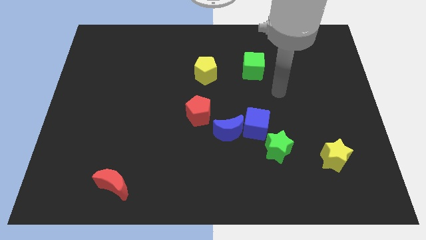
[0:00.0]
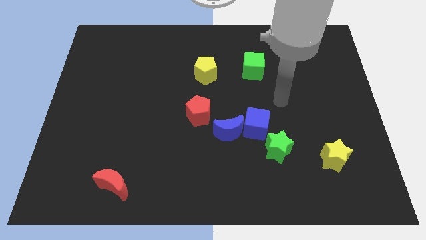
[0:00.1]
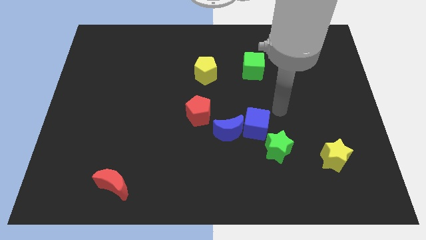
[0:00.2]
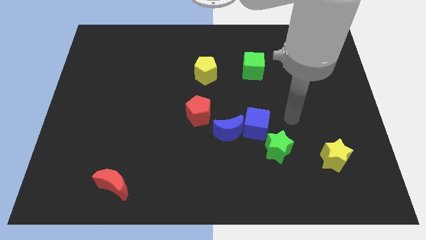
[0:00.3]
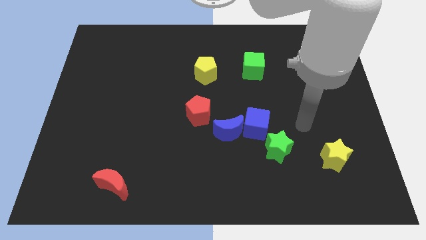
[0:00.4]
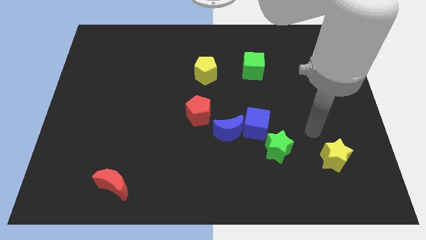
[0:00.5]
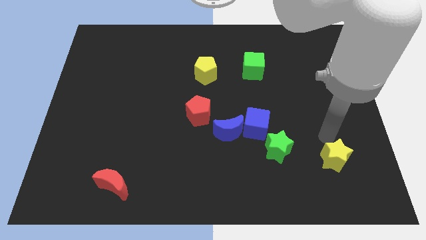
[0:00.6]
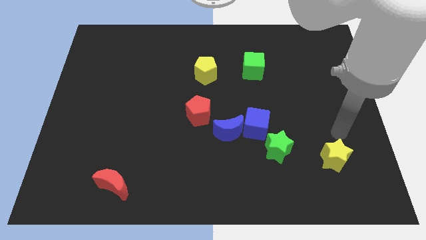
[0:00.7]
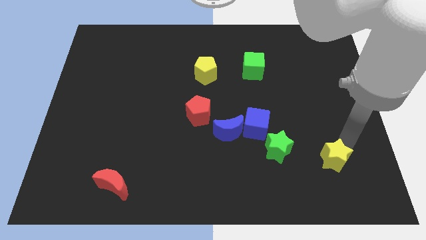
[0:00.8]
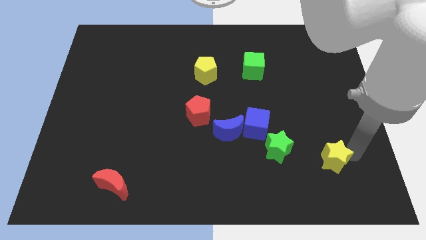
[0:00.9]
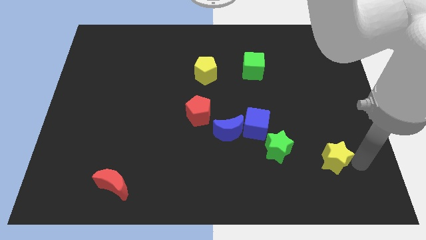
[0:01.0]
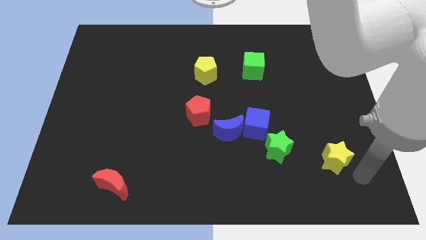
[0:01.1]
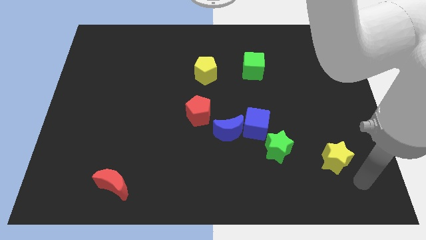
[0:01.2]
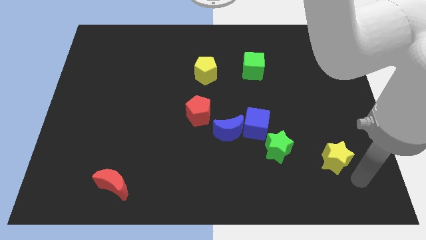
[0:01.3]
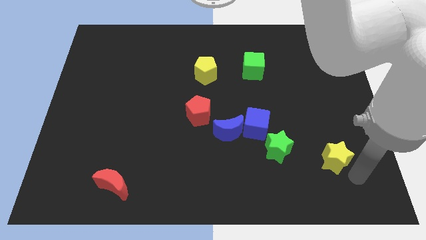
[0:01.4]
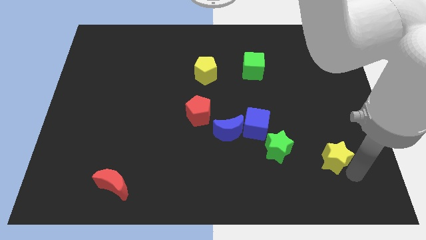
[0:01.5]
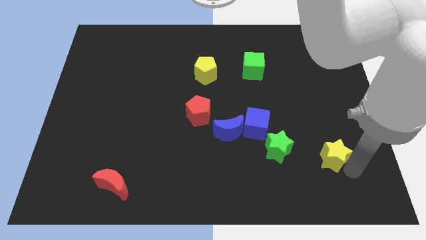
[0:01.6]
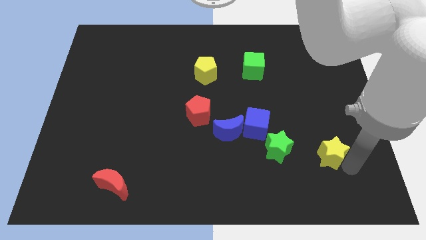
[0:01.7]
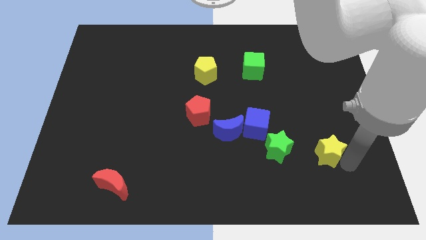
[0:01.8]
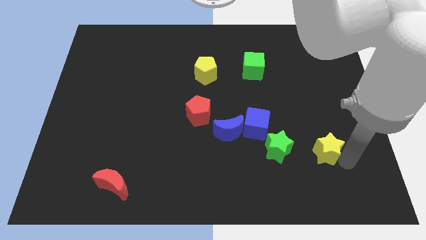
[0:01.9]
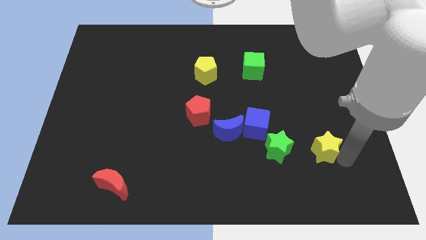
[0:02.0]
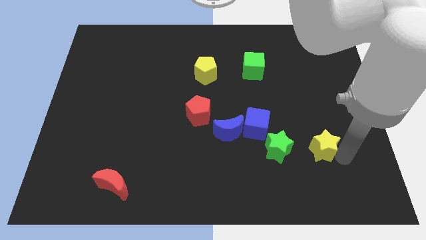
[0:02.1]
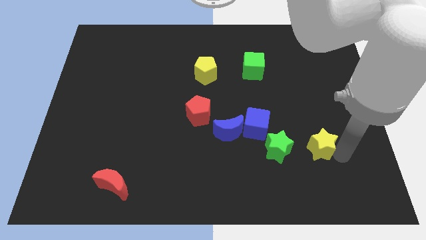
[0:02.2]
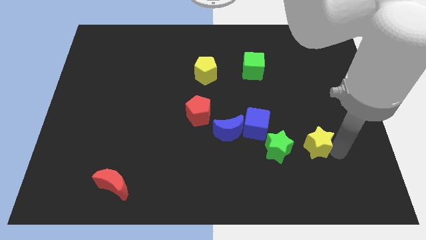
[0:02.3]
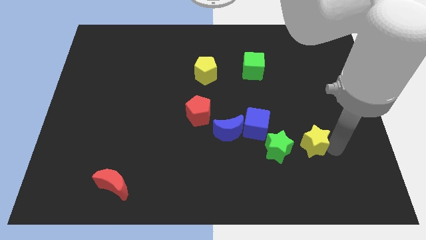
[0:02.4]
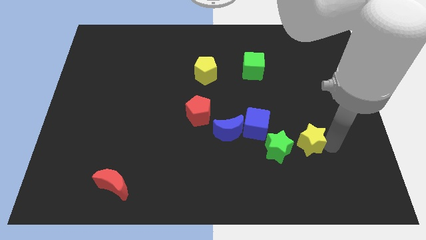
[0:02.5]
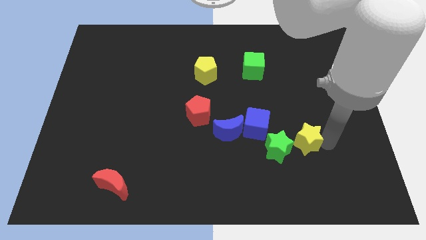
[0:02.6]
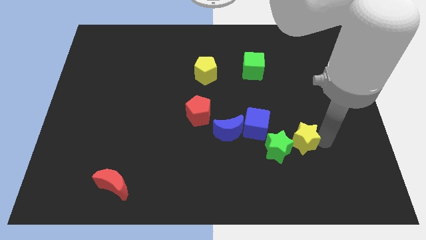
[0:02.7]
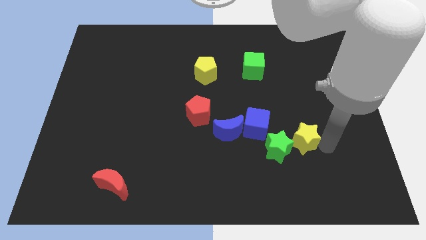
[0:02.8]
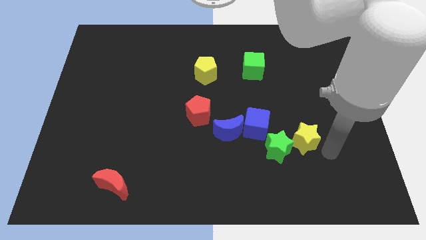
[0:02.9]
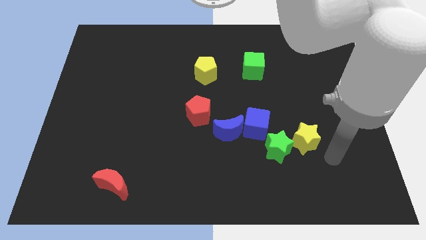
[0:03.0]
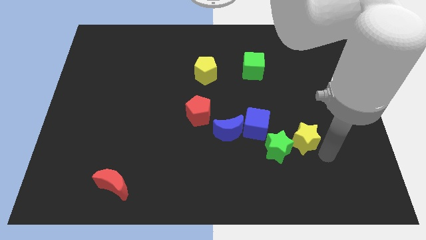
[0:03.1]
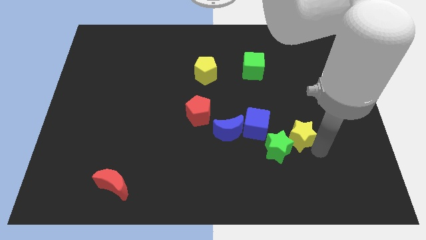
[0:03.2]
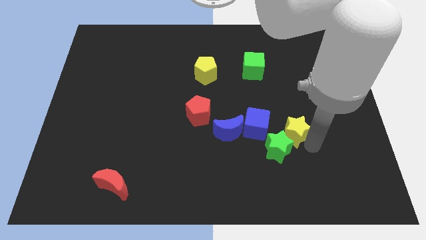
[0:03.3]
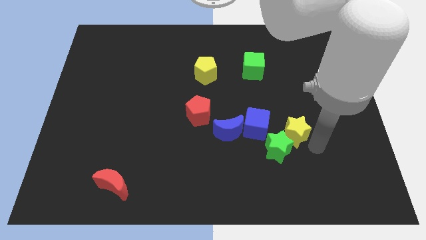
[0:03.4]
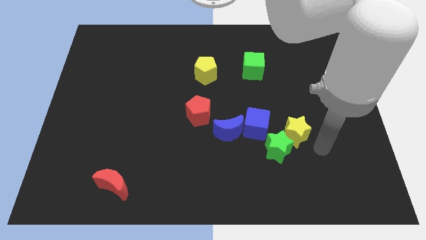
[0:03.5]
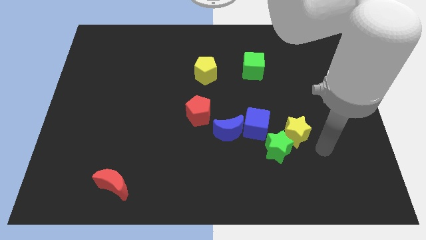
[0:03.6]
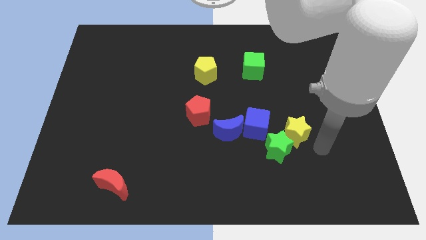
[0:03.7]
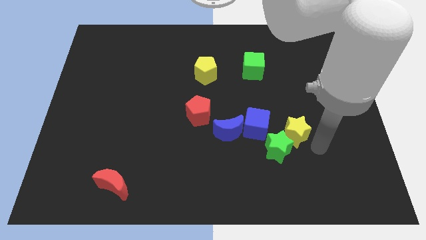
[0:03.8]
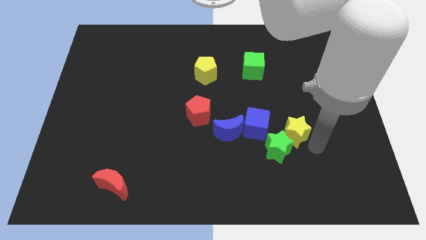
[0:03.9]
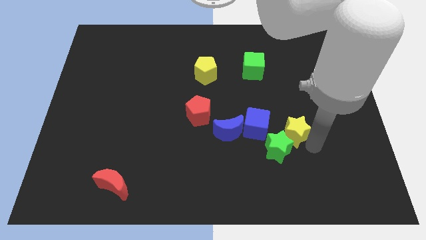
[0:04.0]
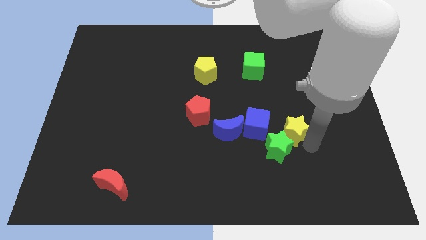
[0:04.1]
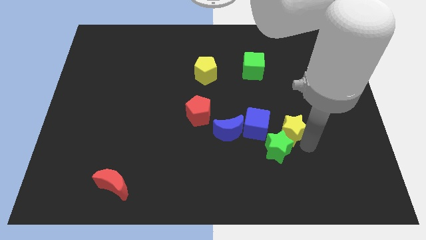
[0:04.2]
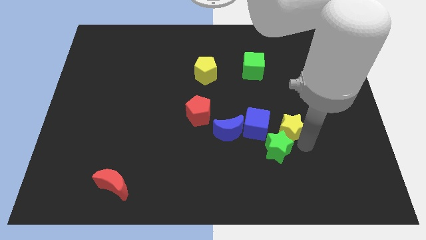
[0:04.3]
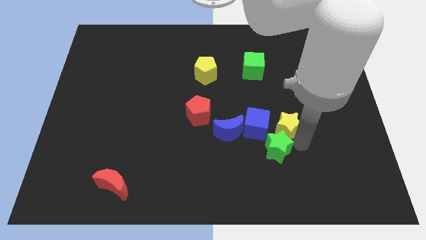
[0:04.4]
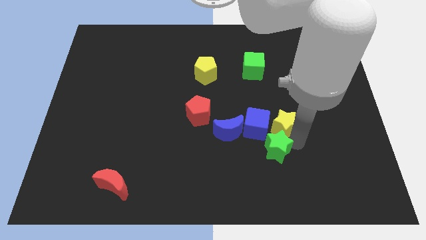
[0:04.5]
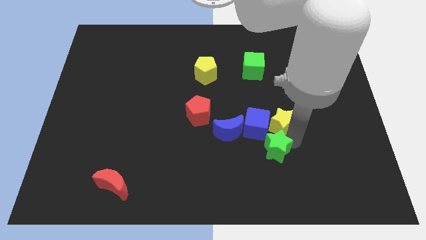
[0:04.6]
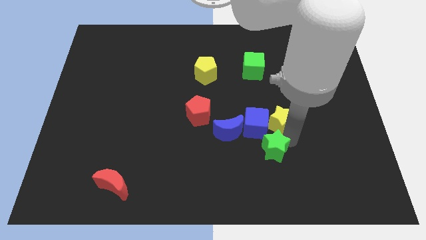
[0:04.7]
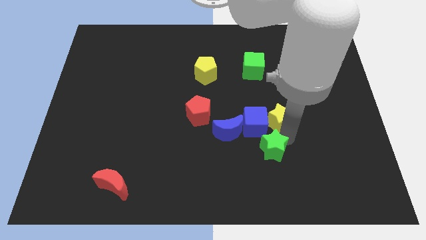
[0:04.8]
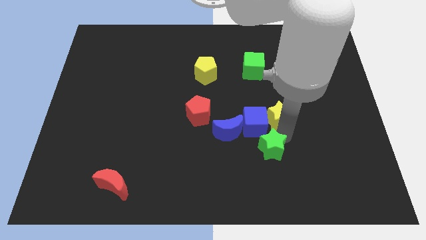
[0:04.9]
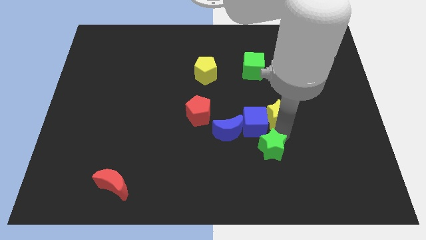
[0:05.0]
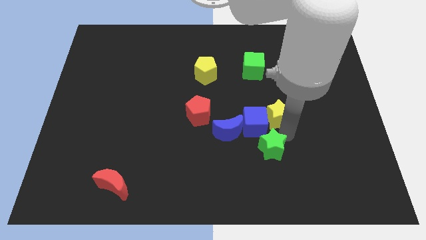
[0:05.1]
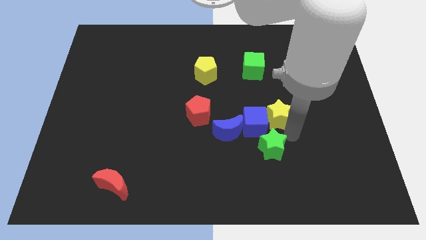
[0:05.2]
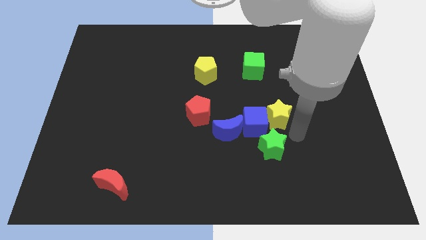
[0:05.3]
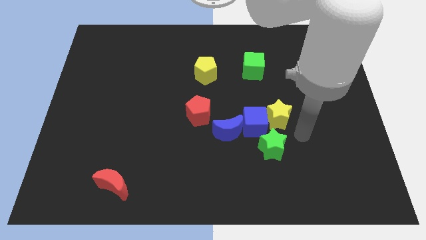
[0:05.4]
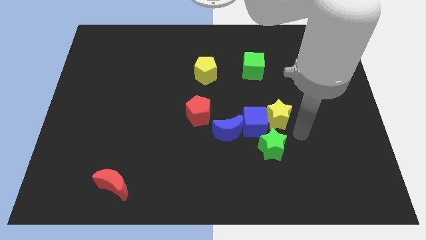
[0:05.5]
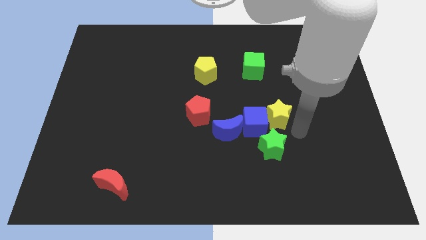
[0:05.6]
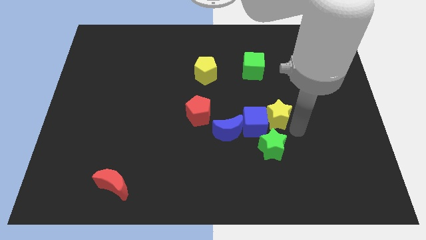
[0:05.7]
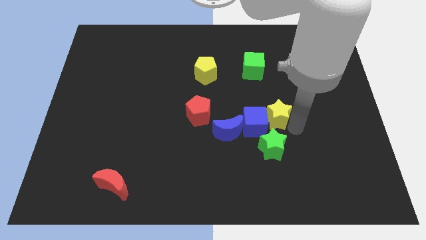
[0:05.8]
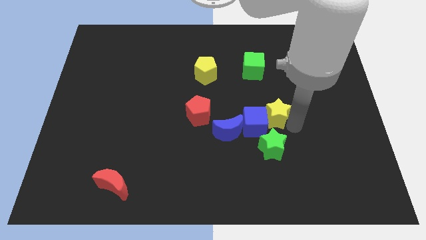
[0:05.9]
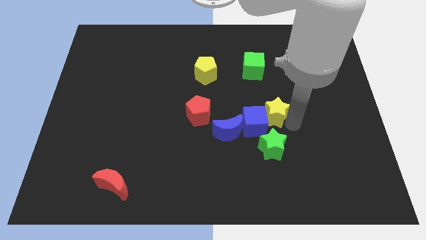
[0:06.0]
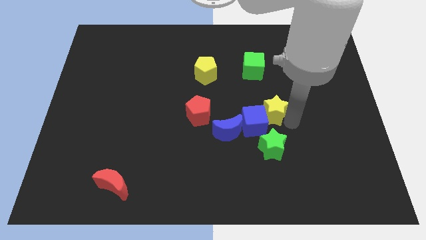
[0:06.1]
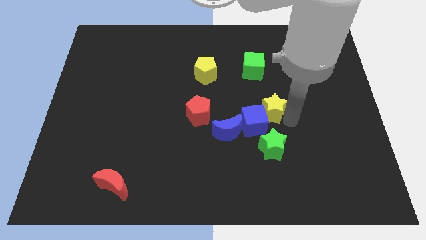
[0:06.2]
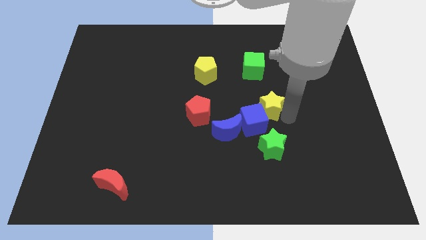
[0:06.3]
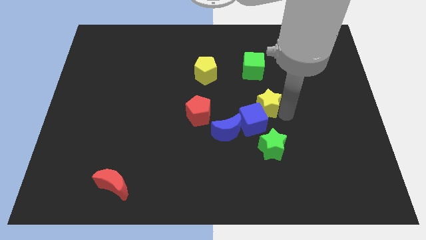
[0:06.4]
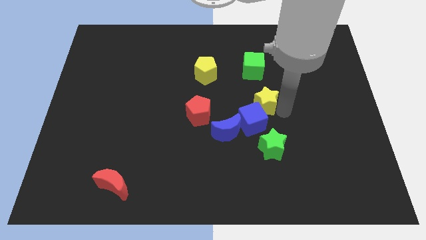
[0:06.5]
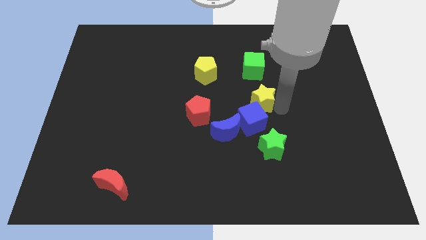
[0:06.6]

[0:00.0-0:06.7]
slide the yellow star upwards and left

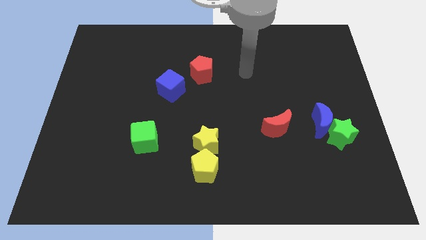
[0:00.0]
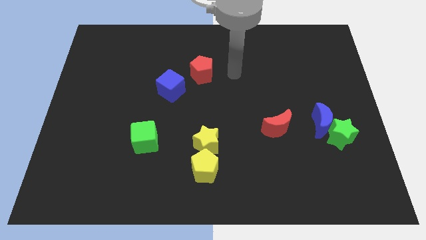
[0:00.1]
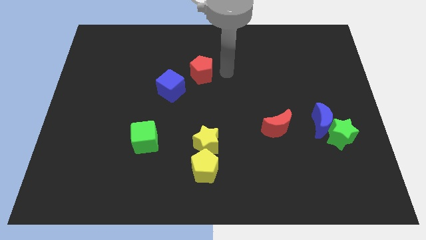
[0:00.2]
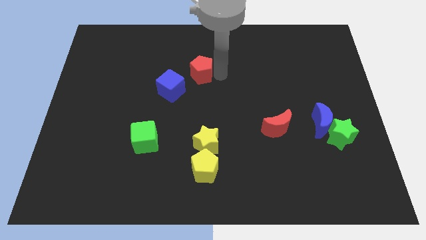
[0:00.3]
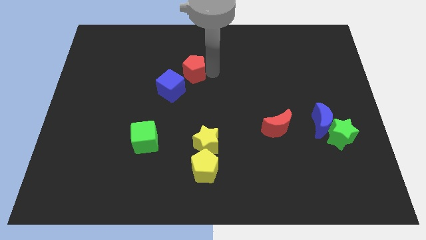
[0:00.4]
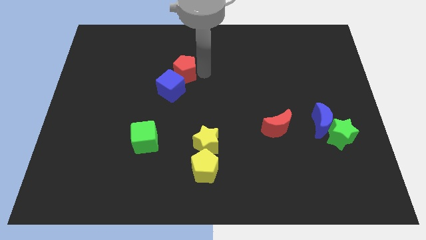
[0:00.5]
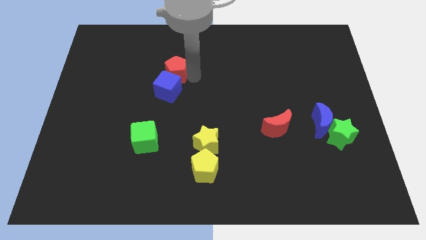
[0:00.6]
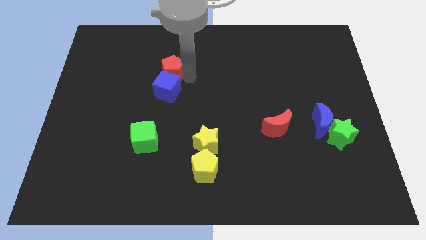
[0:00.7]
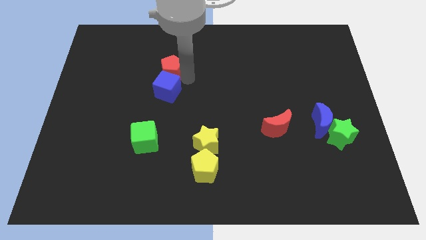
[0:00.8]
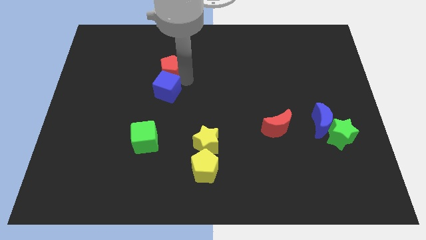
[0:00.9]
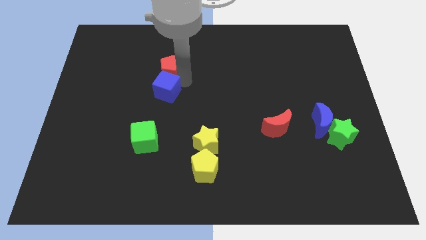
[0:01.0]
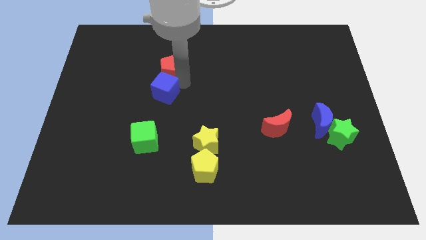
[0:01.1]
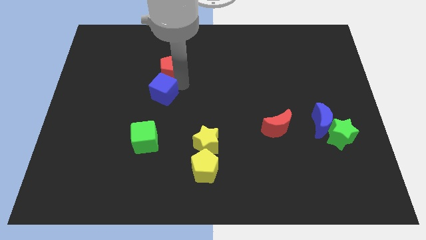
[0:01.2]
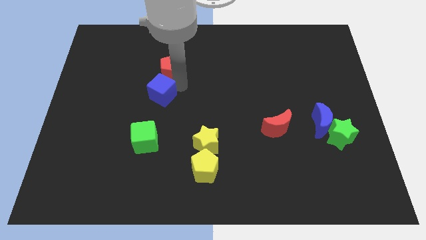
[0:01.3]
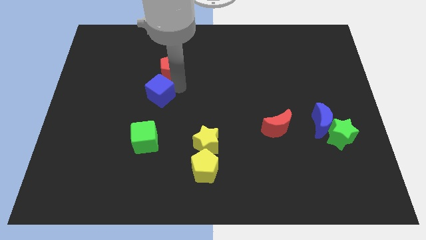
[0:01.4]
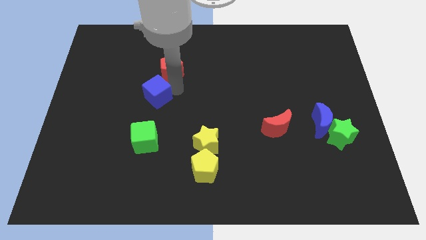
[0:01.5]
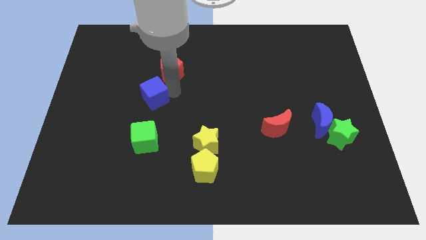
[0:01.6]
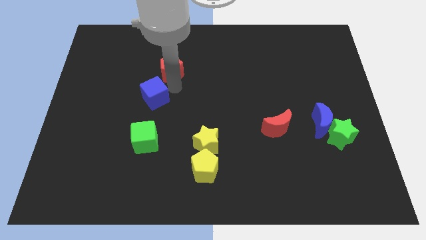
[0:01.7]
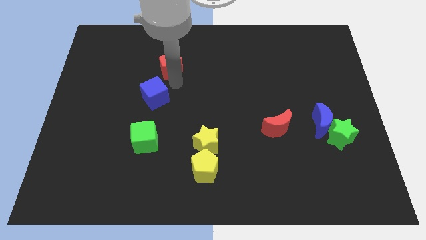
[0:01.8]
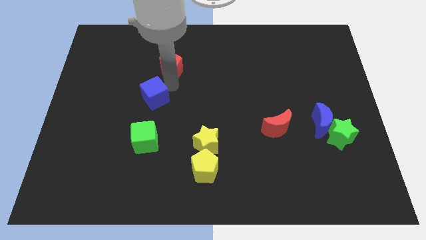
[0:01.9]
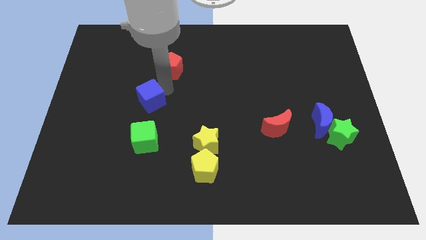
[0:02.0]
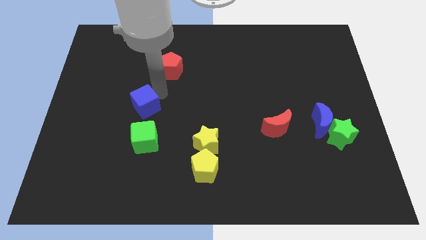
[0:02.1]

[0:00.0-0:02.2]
slightly push the blue cube down and left diagonally
